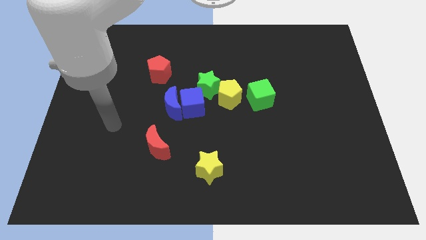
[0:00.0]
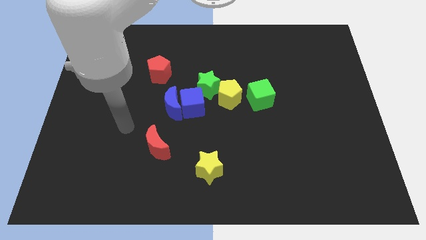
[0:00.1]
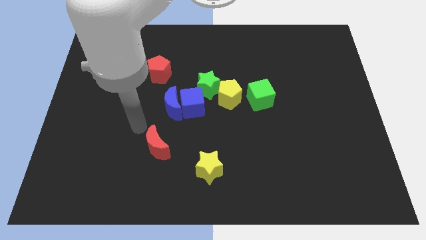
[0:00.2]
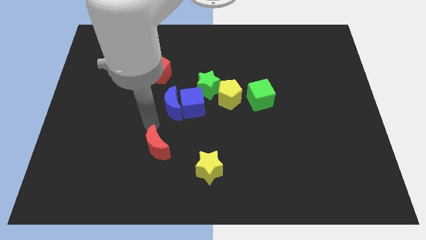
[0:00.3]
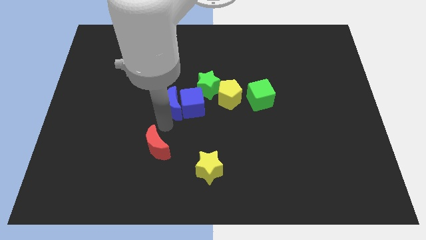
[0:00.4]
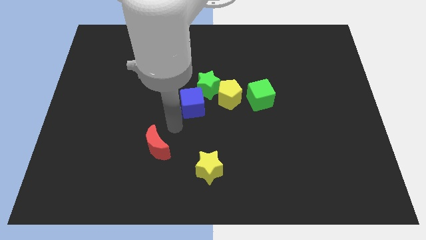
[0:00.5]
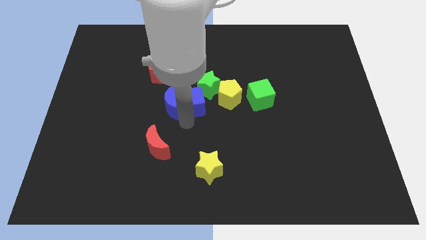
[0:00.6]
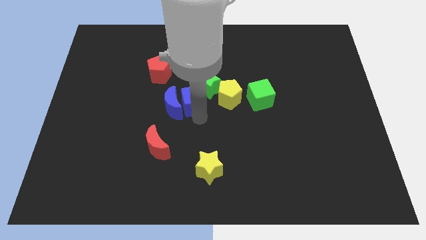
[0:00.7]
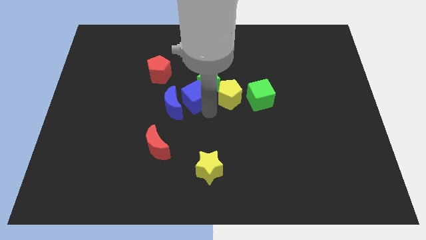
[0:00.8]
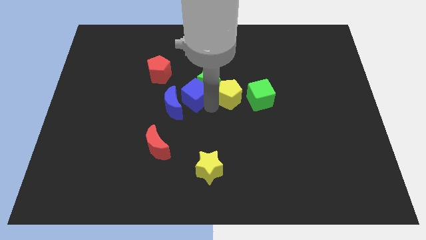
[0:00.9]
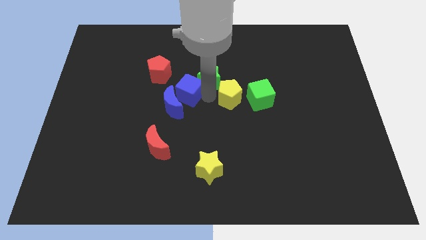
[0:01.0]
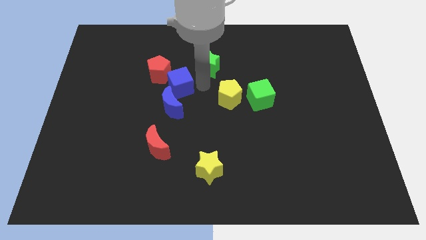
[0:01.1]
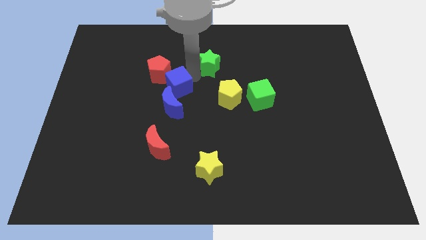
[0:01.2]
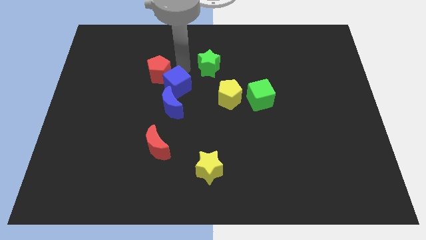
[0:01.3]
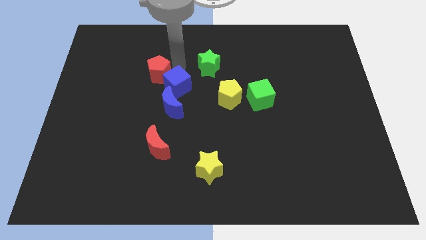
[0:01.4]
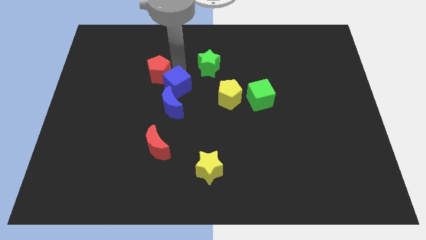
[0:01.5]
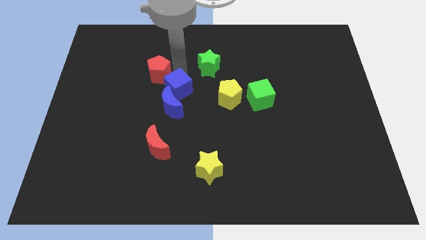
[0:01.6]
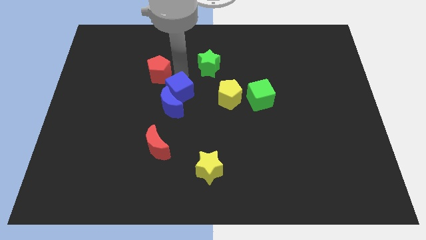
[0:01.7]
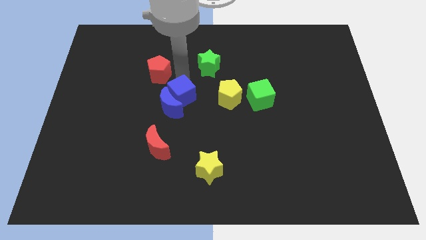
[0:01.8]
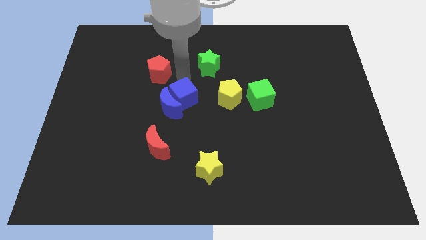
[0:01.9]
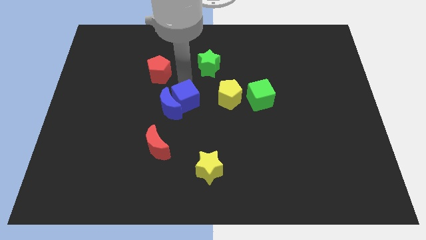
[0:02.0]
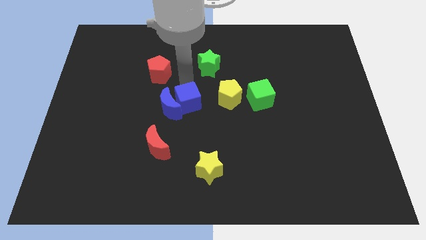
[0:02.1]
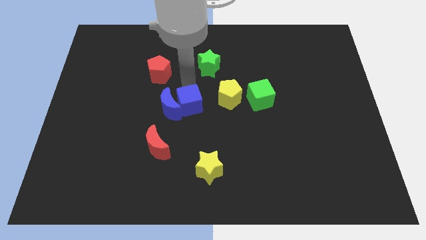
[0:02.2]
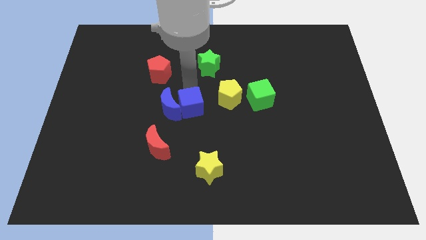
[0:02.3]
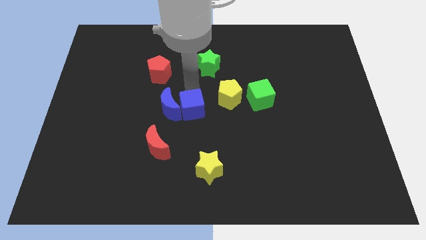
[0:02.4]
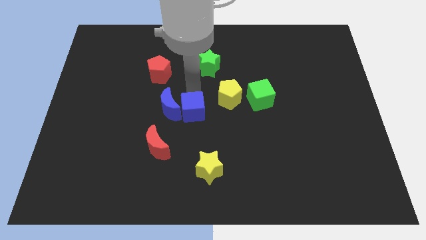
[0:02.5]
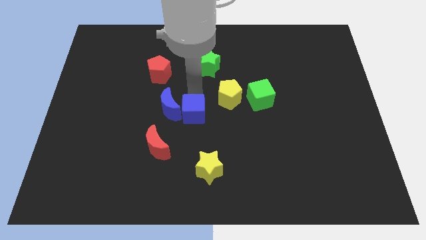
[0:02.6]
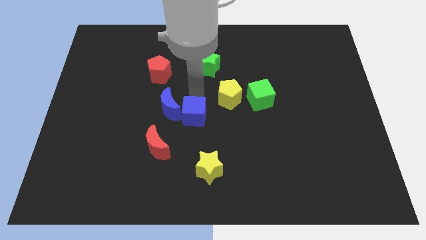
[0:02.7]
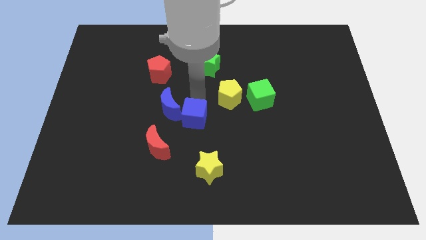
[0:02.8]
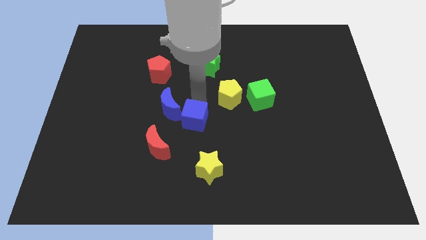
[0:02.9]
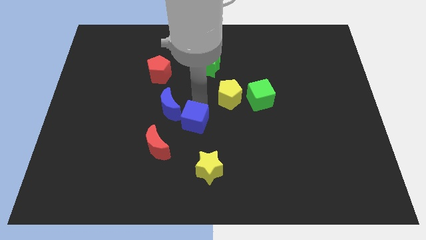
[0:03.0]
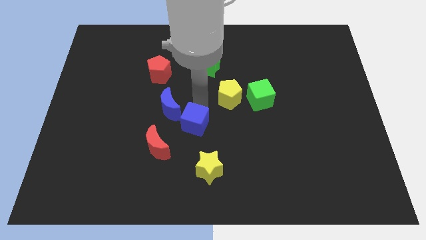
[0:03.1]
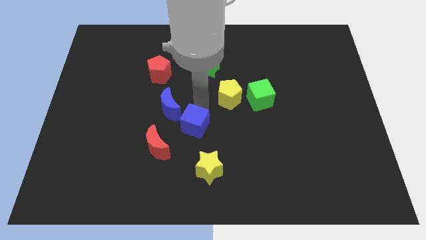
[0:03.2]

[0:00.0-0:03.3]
separate the blue cube from the group

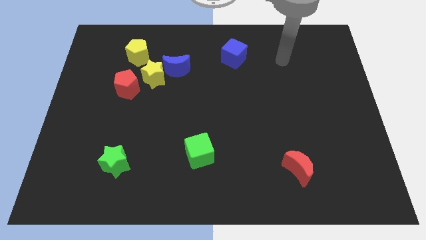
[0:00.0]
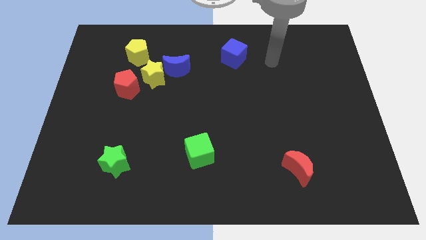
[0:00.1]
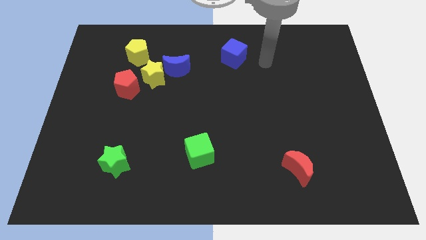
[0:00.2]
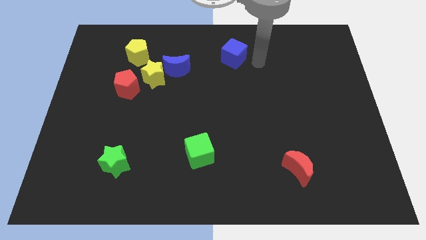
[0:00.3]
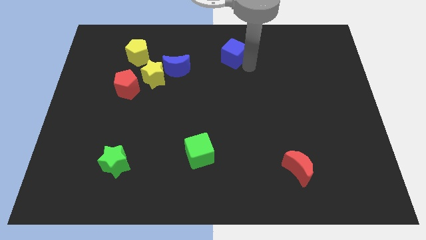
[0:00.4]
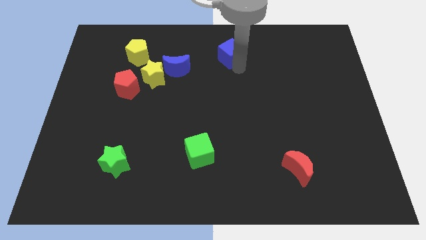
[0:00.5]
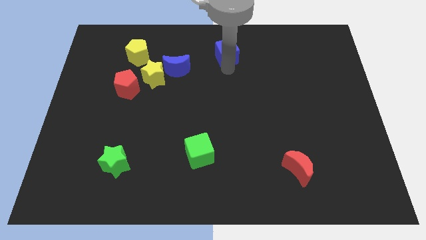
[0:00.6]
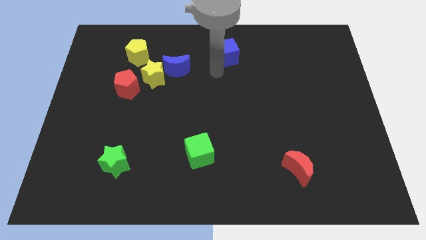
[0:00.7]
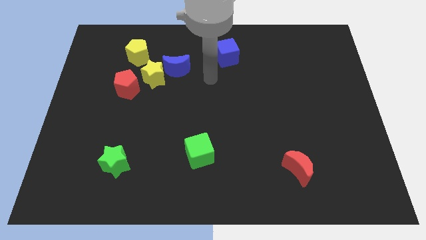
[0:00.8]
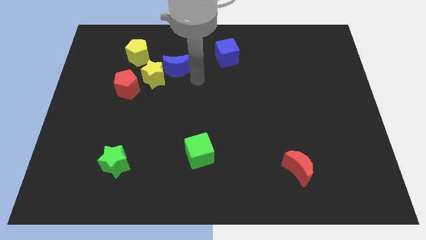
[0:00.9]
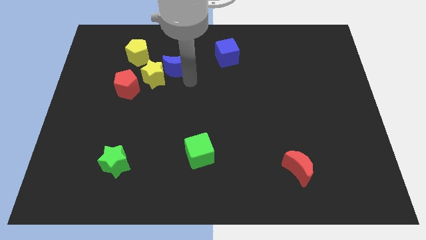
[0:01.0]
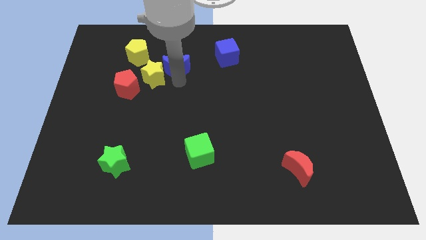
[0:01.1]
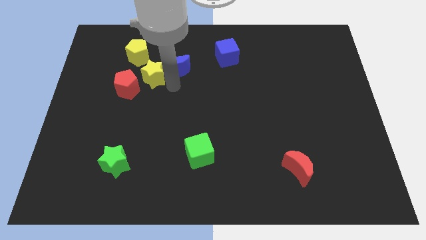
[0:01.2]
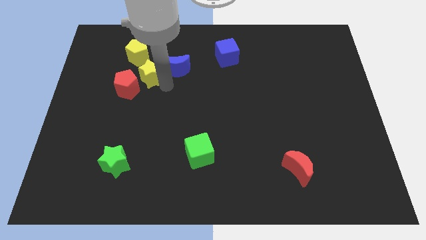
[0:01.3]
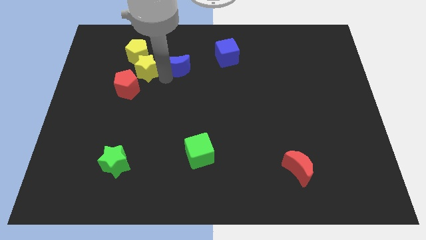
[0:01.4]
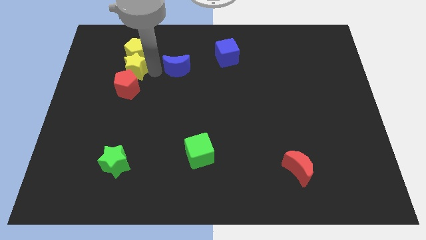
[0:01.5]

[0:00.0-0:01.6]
move the blue moon away from the yellow star

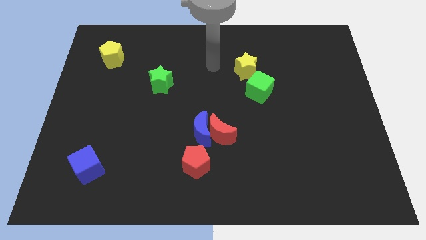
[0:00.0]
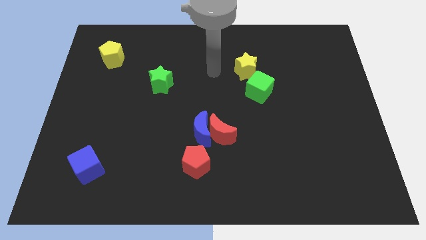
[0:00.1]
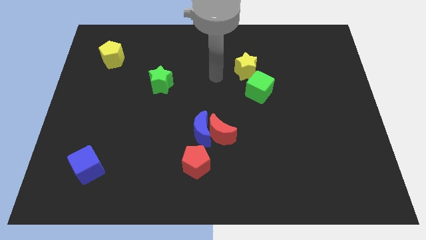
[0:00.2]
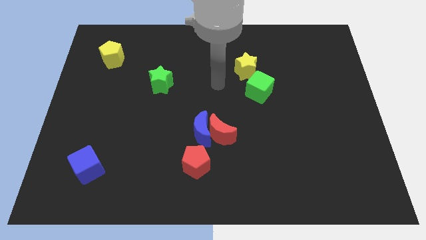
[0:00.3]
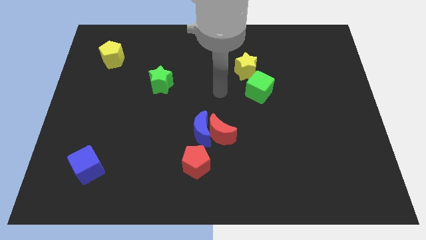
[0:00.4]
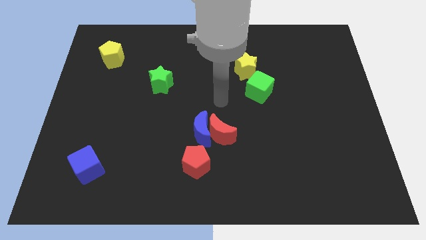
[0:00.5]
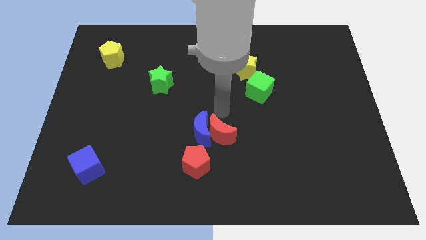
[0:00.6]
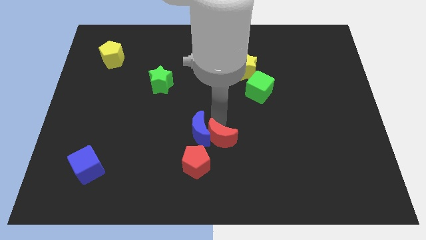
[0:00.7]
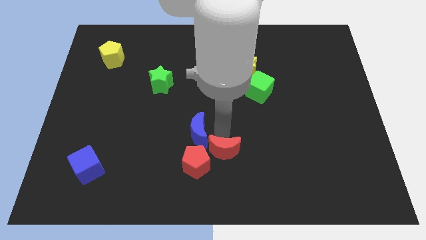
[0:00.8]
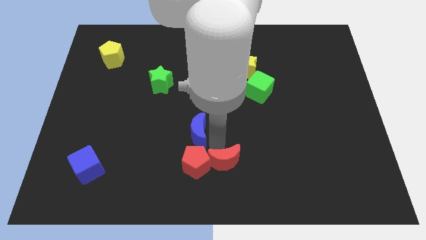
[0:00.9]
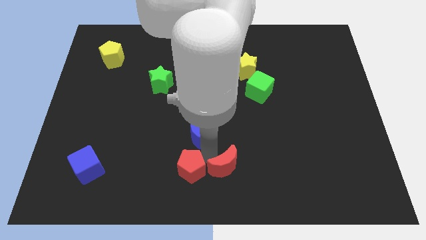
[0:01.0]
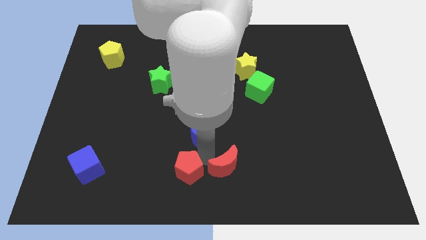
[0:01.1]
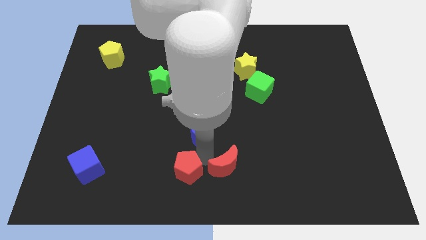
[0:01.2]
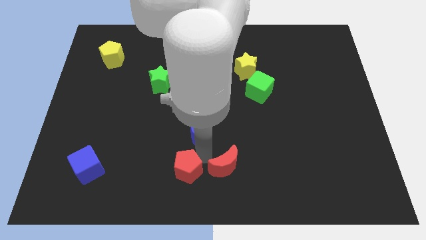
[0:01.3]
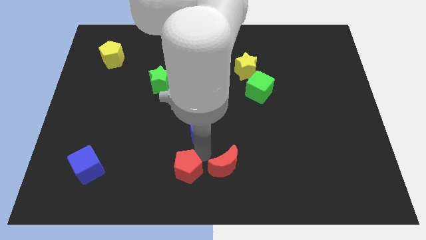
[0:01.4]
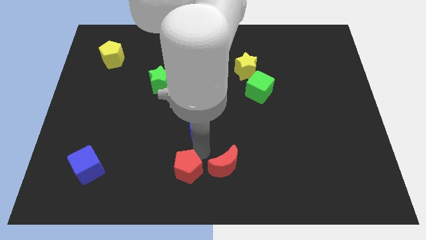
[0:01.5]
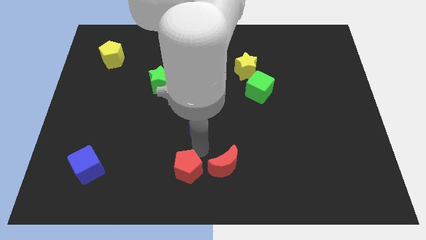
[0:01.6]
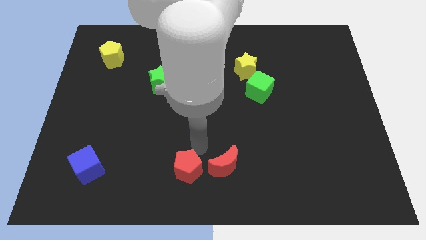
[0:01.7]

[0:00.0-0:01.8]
move the blue moon away from the red moon and red pentagon

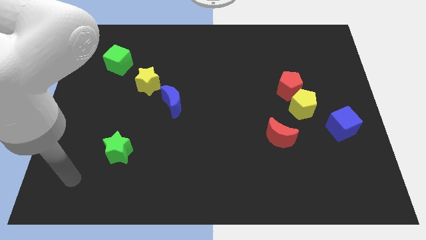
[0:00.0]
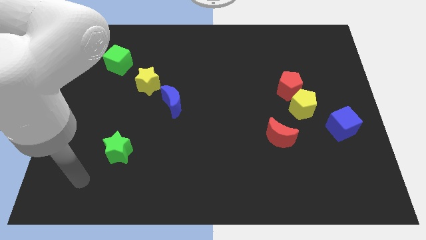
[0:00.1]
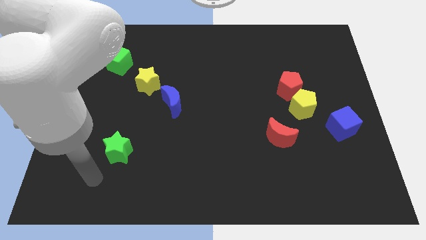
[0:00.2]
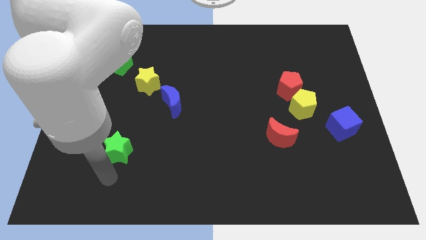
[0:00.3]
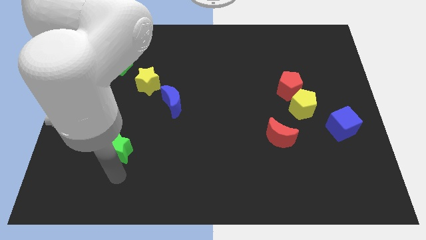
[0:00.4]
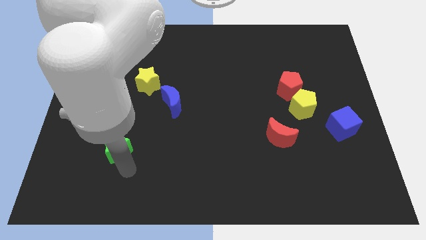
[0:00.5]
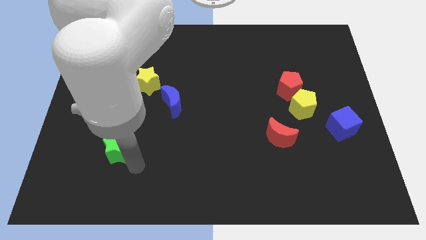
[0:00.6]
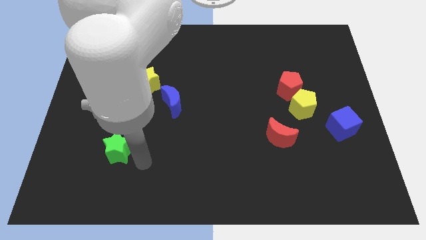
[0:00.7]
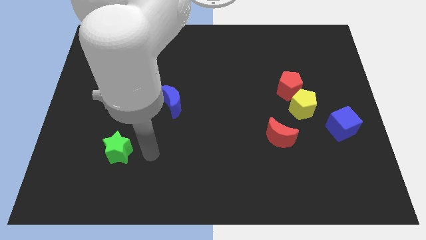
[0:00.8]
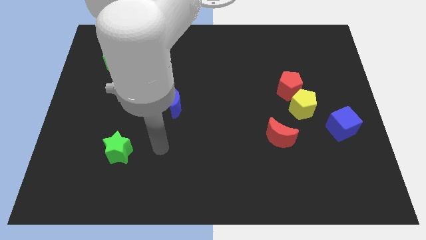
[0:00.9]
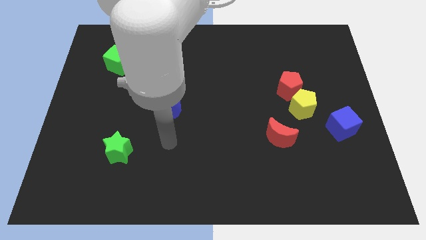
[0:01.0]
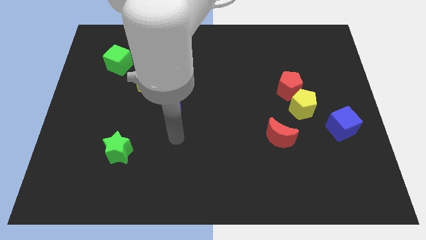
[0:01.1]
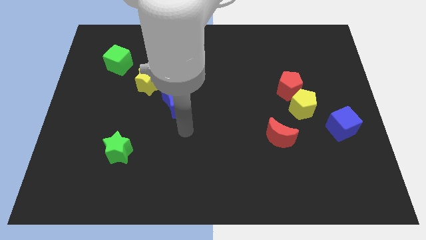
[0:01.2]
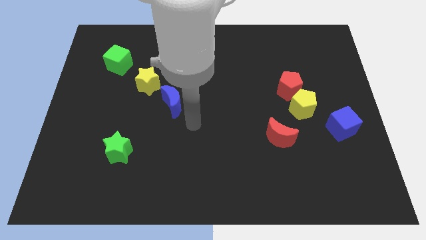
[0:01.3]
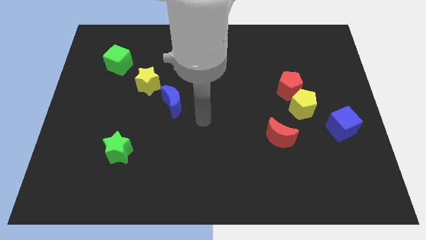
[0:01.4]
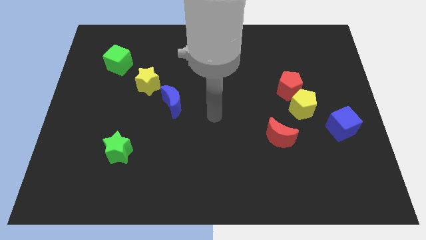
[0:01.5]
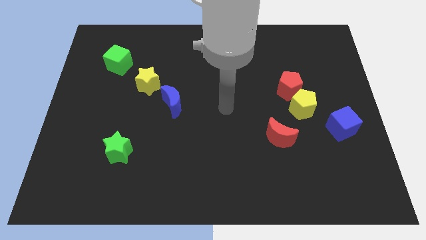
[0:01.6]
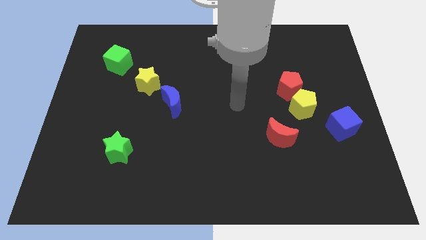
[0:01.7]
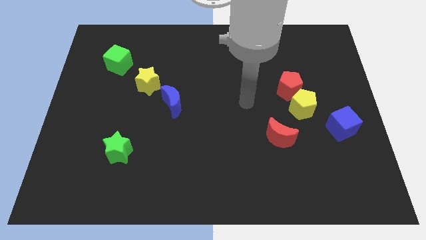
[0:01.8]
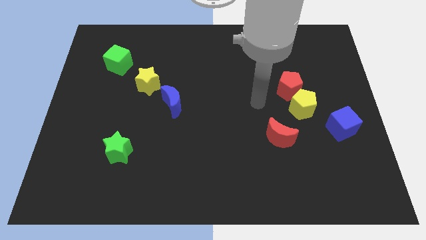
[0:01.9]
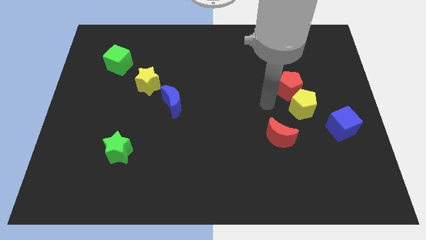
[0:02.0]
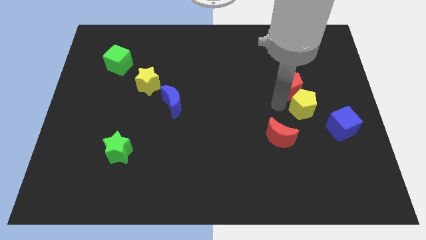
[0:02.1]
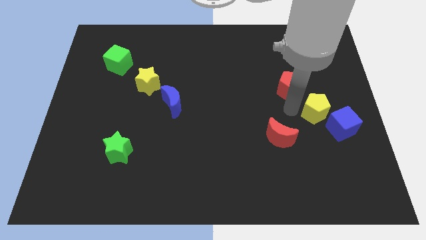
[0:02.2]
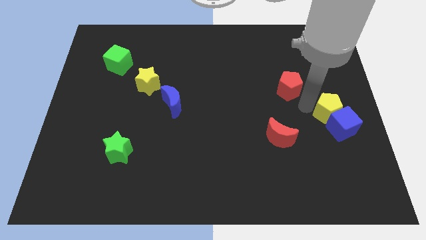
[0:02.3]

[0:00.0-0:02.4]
pull the red pentagon apart from the yellow pentagon

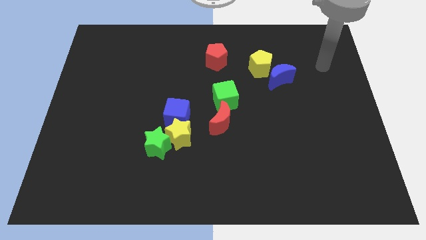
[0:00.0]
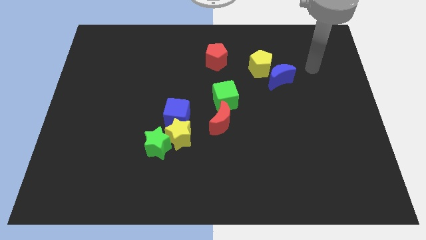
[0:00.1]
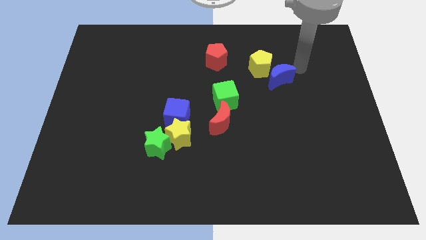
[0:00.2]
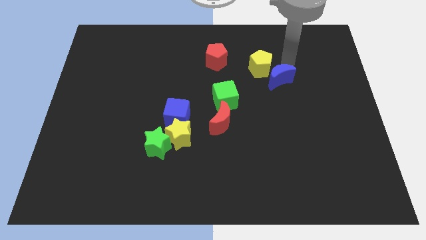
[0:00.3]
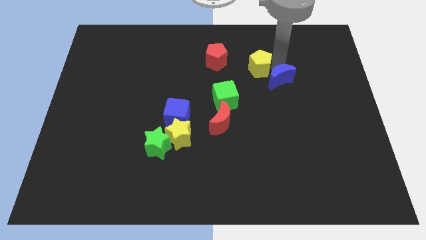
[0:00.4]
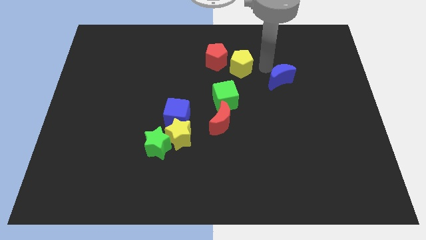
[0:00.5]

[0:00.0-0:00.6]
pull the blue moon apart from the yellow pentagon
